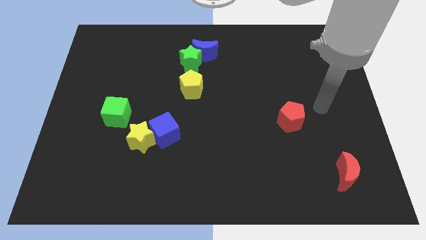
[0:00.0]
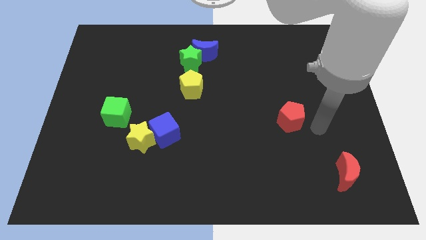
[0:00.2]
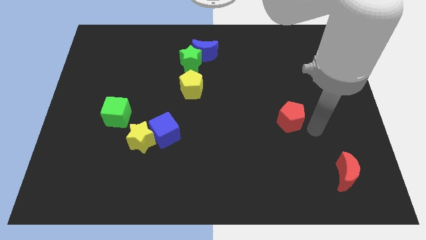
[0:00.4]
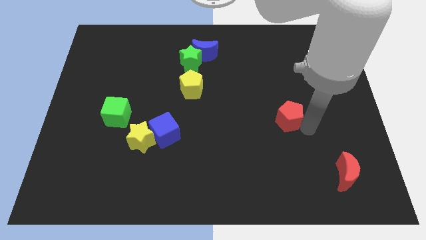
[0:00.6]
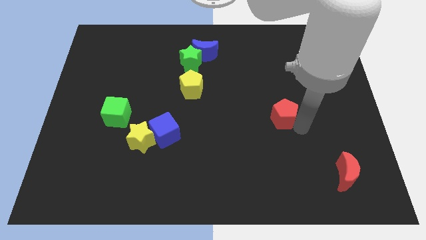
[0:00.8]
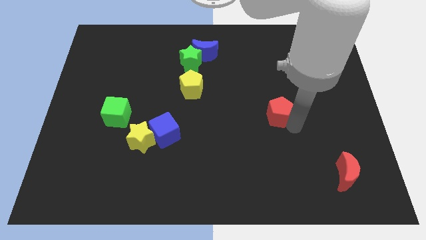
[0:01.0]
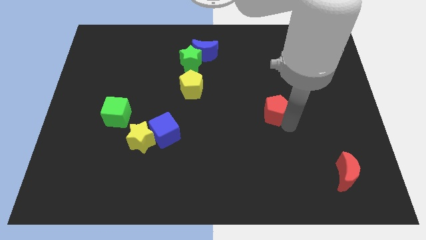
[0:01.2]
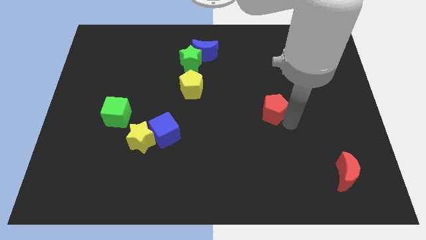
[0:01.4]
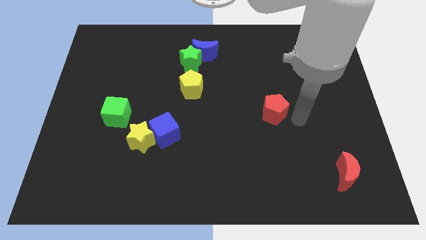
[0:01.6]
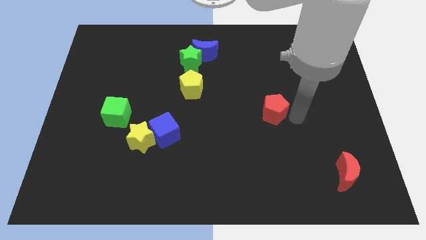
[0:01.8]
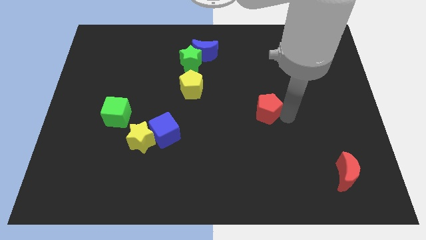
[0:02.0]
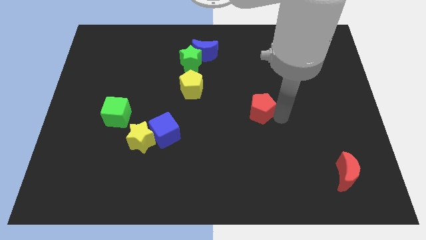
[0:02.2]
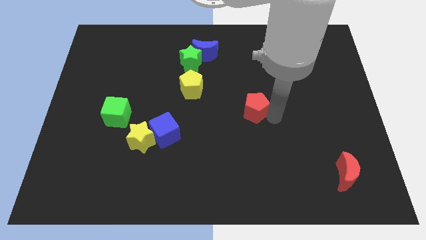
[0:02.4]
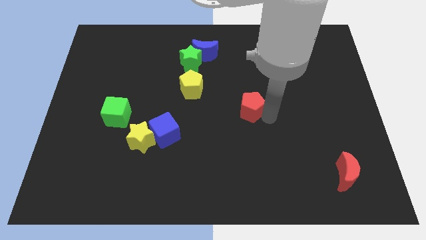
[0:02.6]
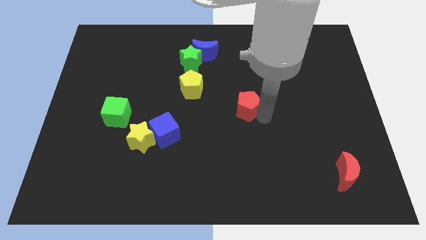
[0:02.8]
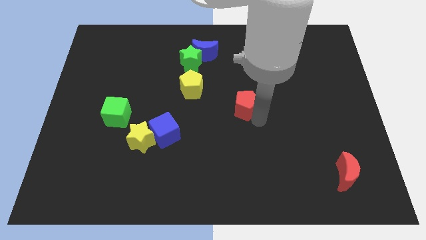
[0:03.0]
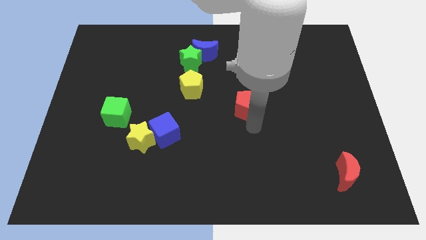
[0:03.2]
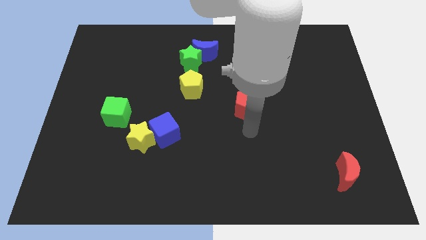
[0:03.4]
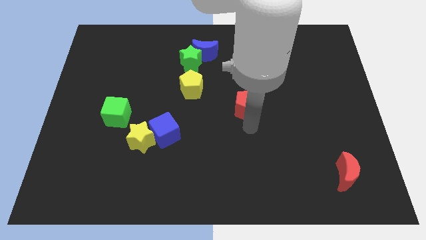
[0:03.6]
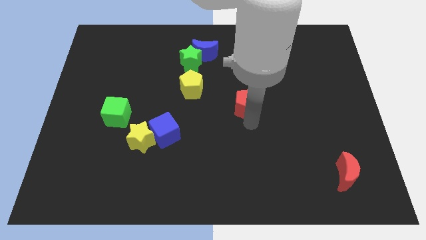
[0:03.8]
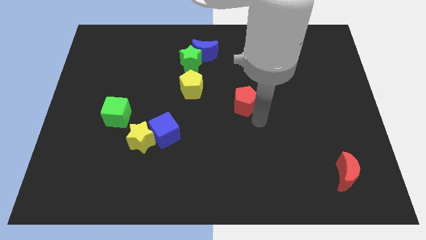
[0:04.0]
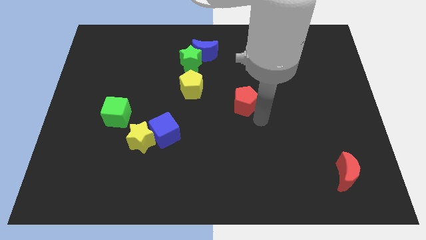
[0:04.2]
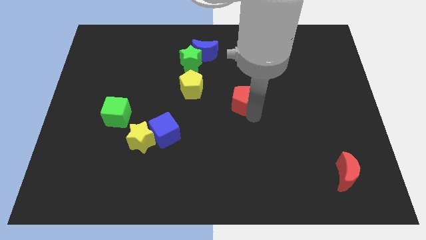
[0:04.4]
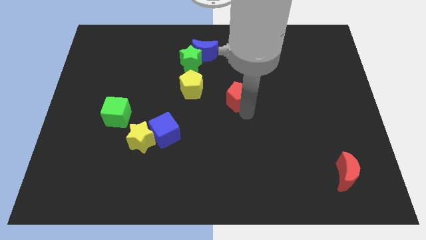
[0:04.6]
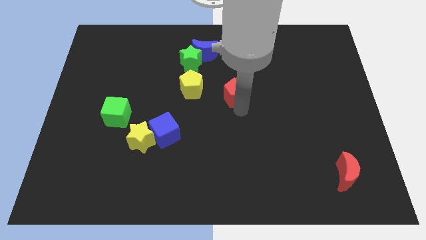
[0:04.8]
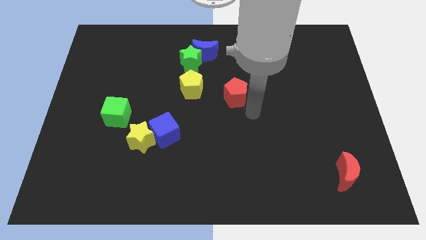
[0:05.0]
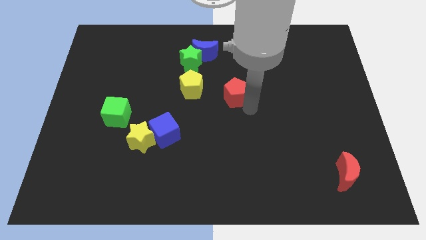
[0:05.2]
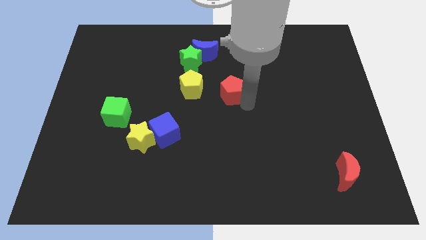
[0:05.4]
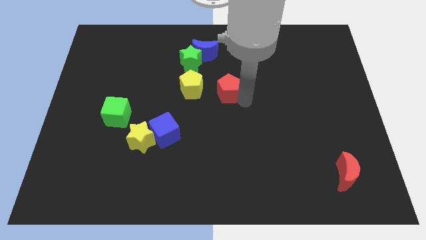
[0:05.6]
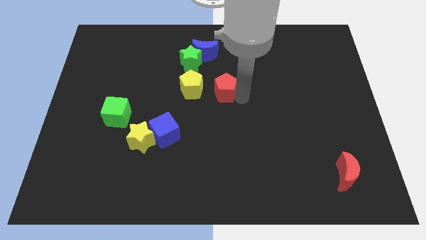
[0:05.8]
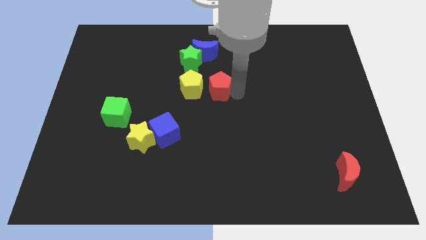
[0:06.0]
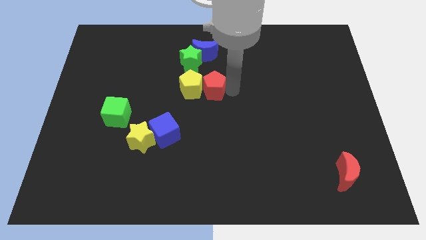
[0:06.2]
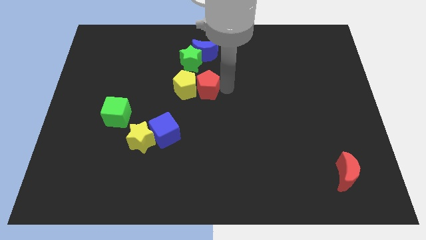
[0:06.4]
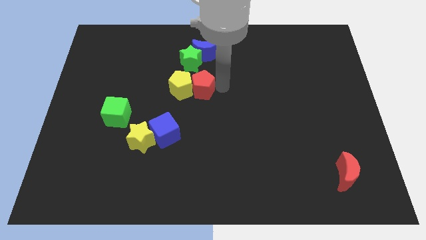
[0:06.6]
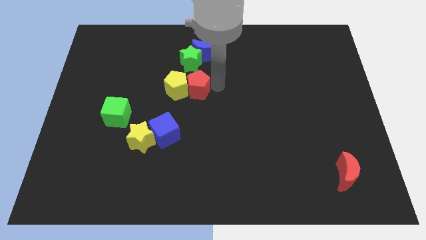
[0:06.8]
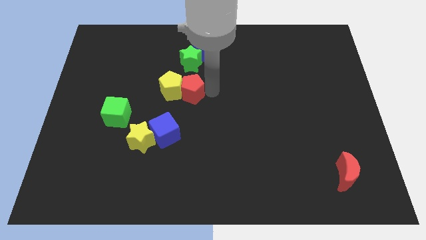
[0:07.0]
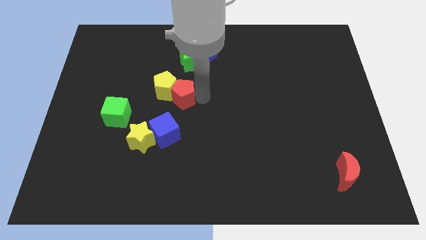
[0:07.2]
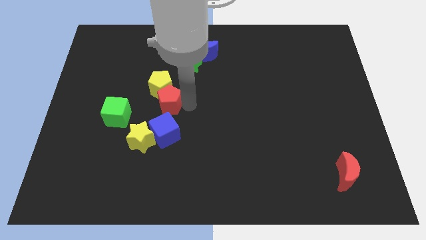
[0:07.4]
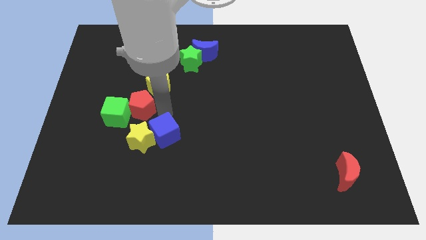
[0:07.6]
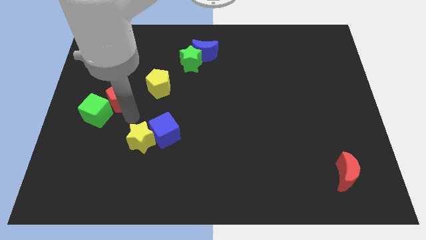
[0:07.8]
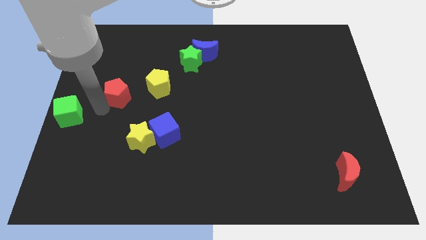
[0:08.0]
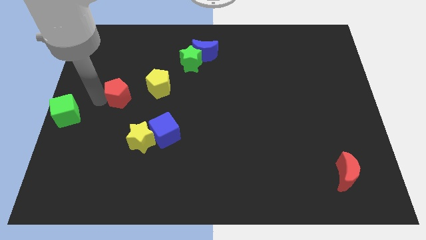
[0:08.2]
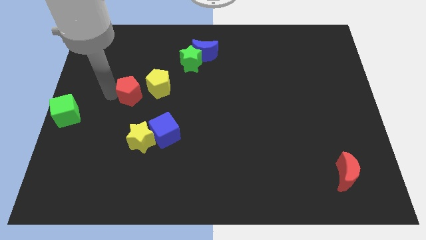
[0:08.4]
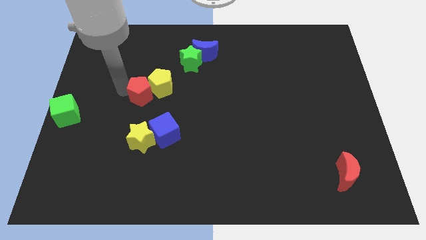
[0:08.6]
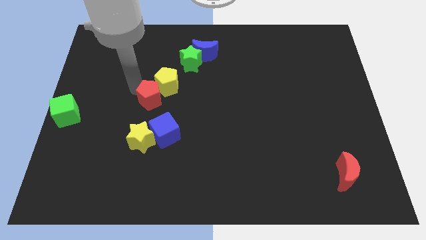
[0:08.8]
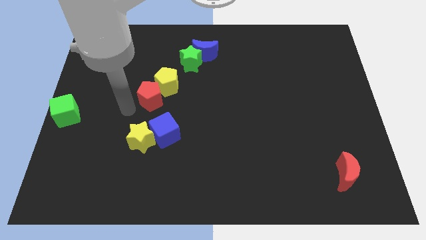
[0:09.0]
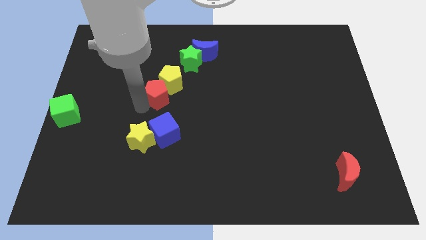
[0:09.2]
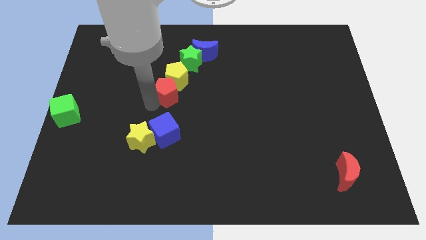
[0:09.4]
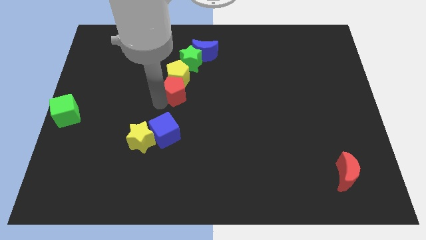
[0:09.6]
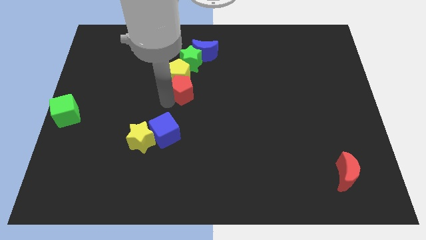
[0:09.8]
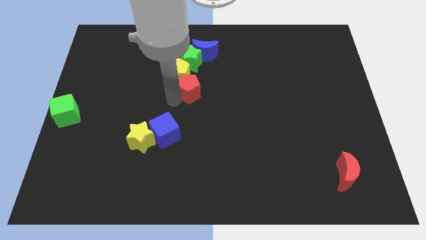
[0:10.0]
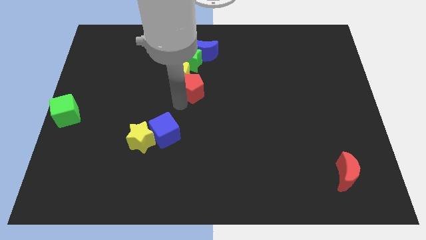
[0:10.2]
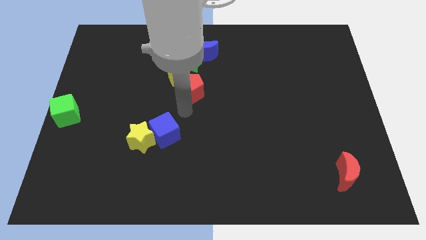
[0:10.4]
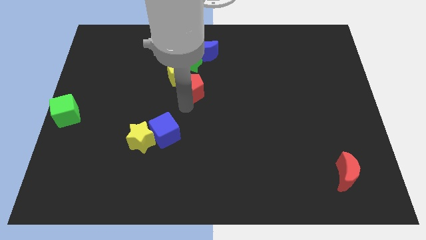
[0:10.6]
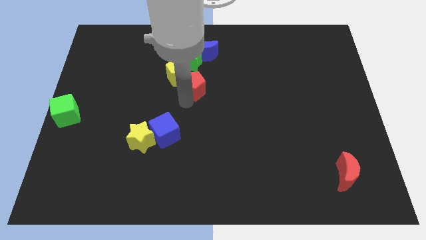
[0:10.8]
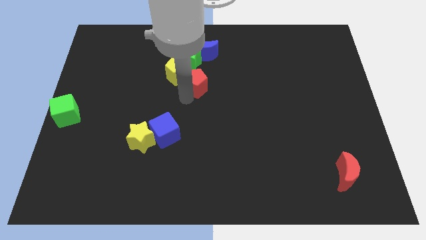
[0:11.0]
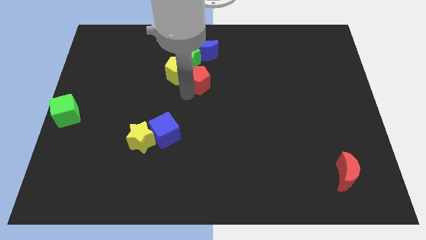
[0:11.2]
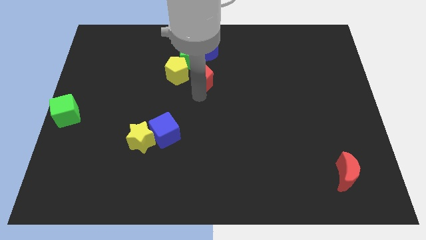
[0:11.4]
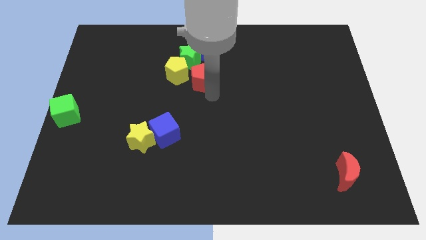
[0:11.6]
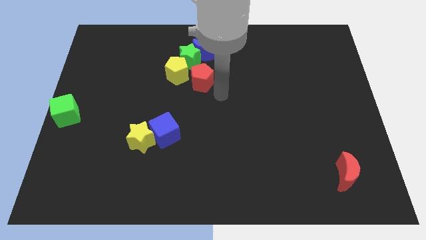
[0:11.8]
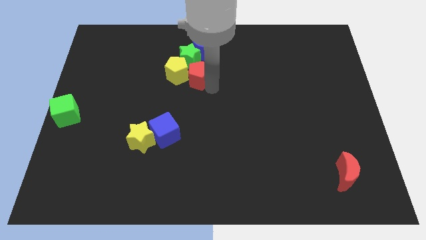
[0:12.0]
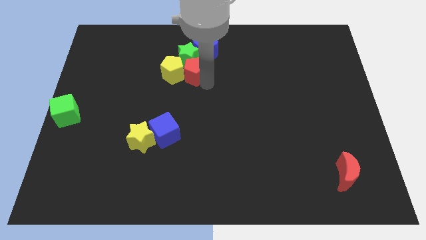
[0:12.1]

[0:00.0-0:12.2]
move the red pentagon diagonally down and to the left of the blue moon

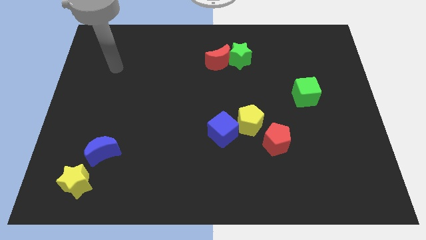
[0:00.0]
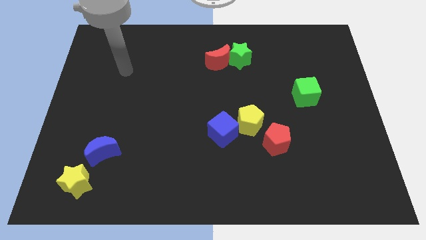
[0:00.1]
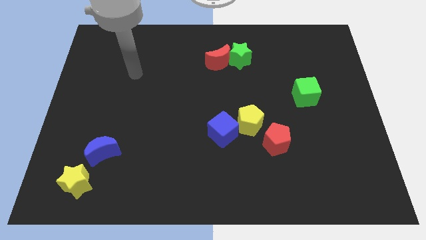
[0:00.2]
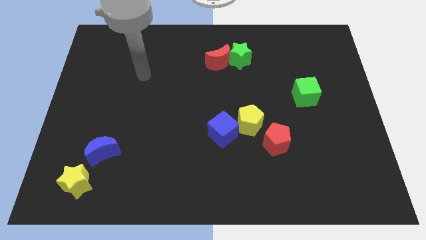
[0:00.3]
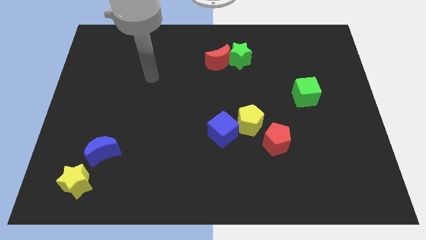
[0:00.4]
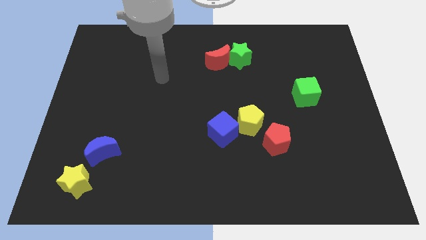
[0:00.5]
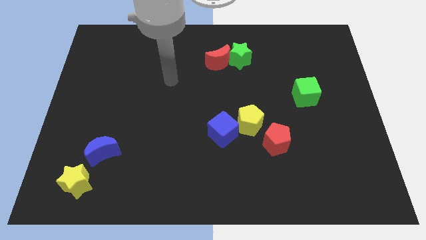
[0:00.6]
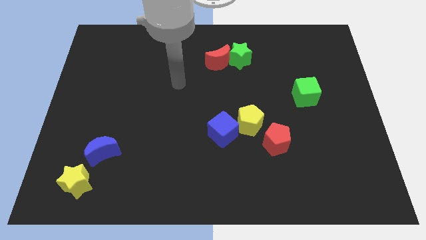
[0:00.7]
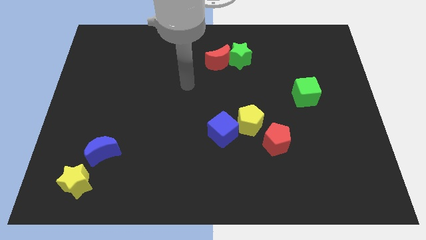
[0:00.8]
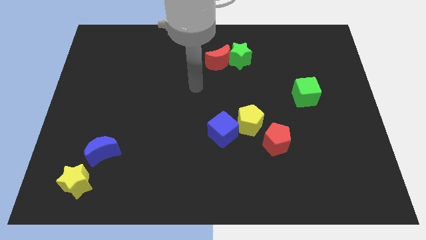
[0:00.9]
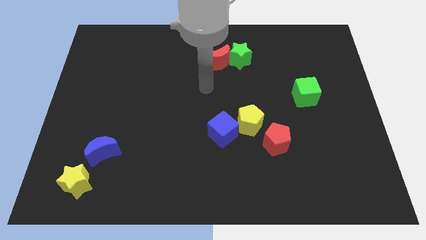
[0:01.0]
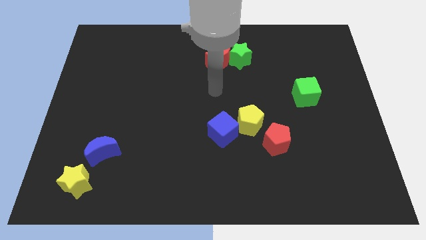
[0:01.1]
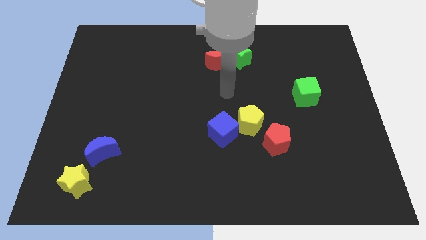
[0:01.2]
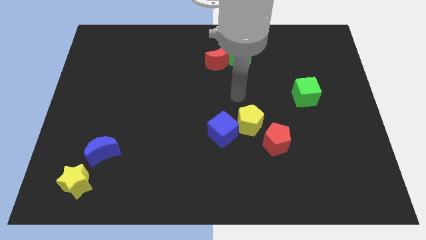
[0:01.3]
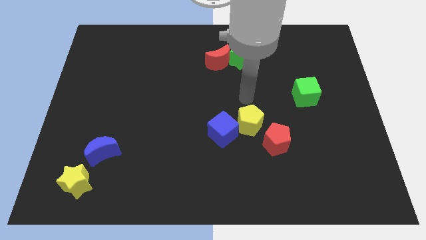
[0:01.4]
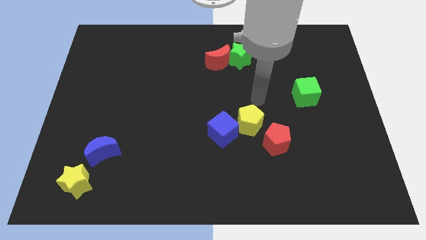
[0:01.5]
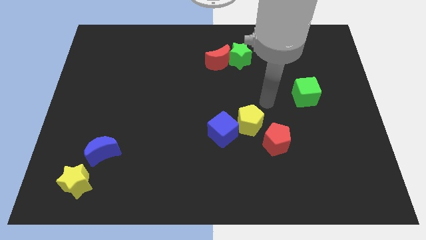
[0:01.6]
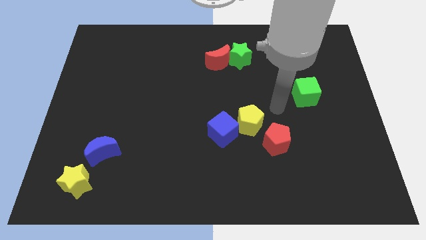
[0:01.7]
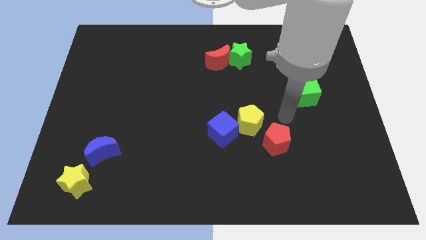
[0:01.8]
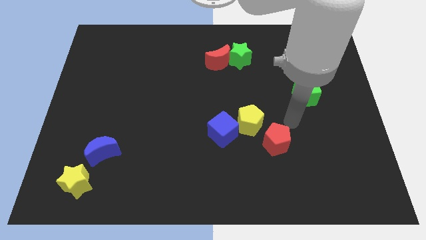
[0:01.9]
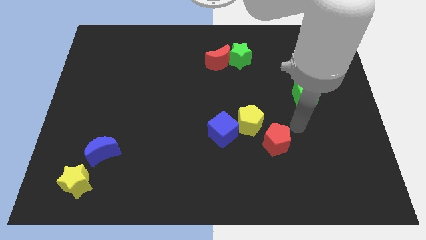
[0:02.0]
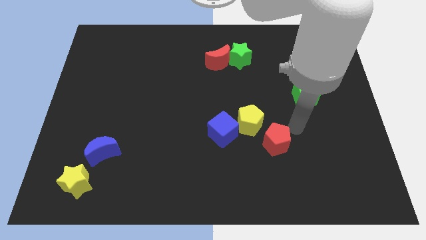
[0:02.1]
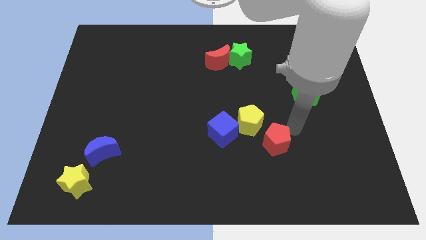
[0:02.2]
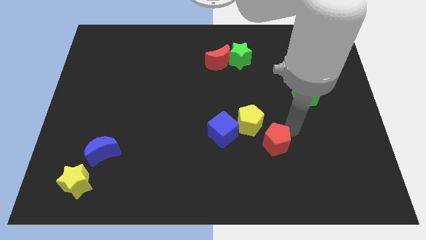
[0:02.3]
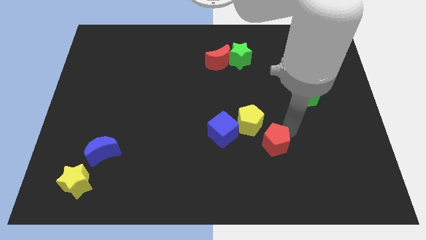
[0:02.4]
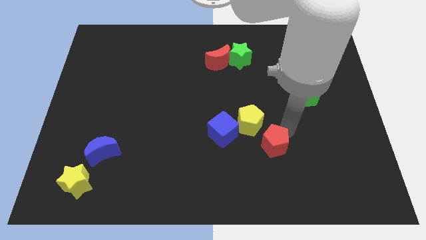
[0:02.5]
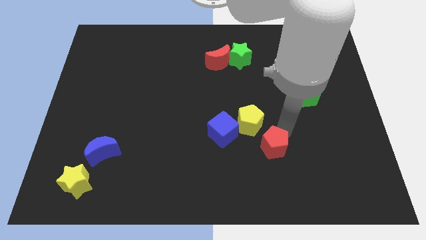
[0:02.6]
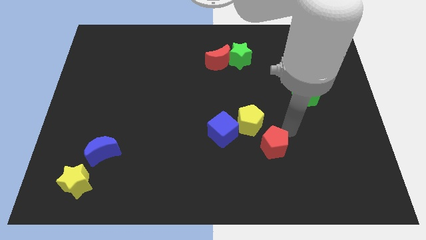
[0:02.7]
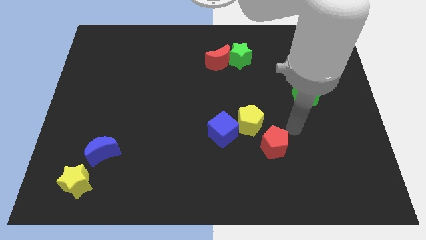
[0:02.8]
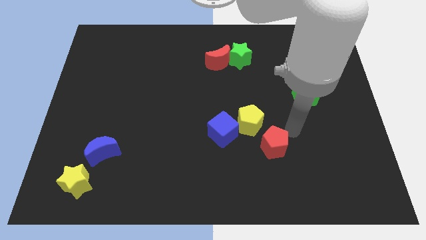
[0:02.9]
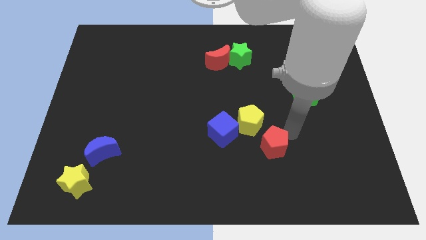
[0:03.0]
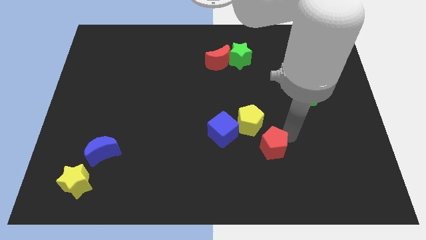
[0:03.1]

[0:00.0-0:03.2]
slide the red pentagon below the yellow pentagon
